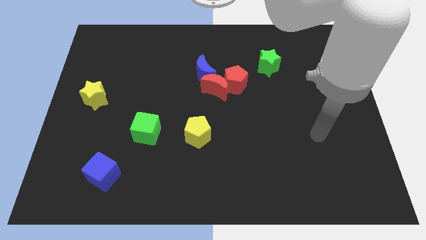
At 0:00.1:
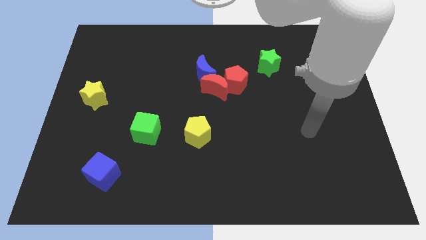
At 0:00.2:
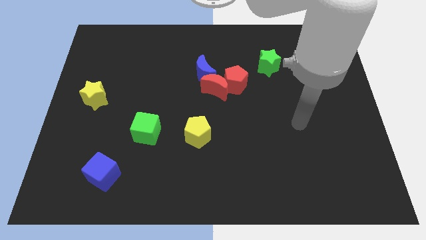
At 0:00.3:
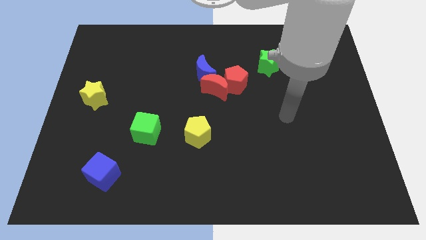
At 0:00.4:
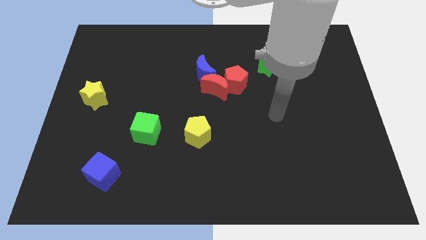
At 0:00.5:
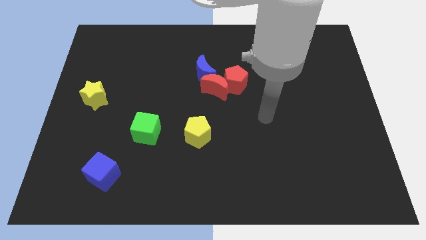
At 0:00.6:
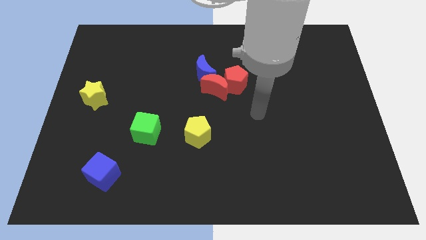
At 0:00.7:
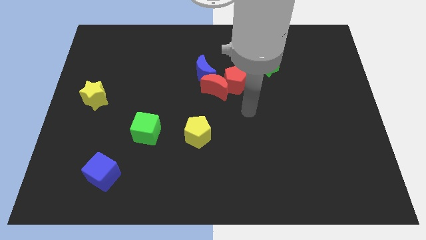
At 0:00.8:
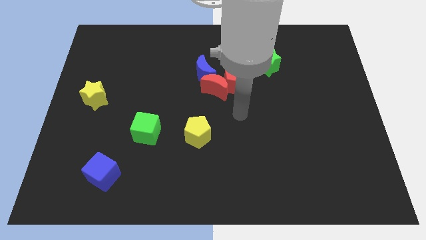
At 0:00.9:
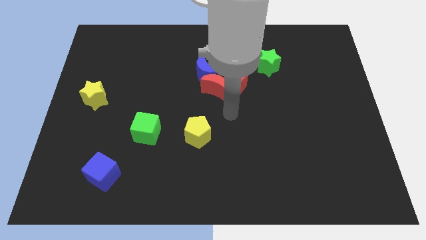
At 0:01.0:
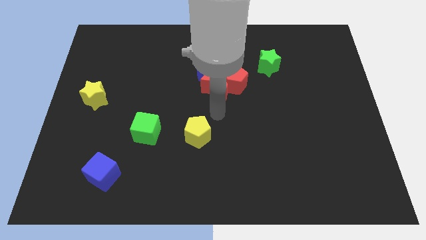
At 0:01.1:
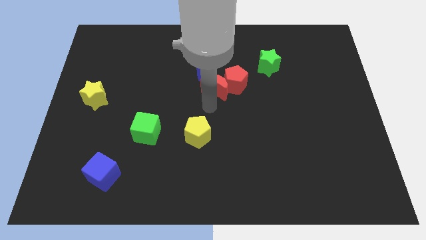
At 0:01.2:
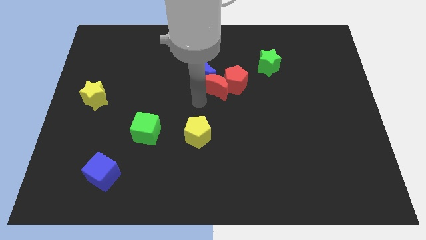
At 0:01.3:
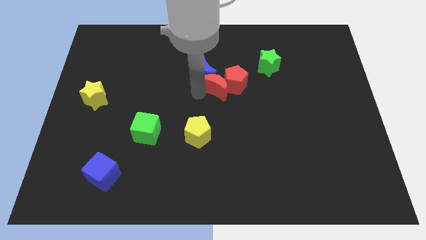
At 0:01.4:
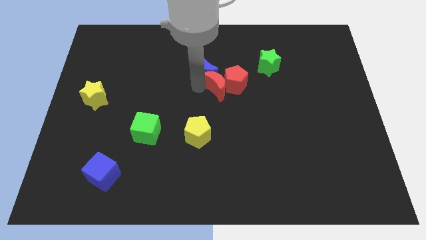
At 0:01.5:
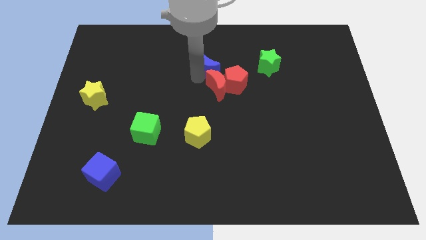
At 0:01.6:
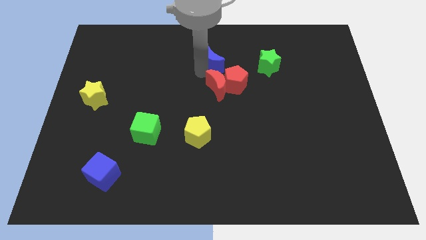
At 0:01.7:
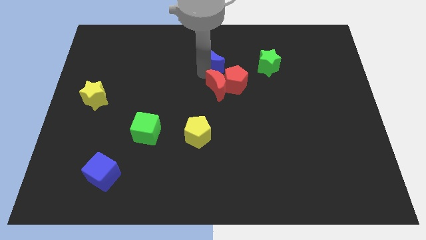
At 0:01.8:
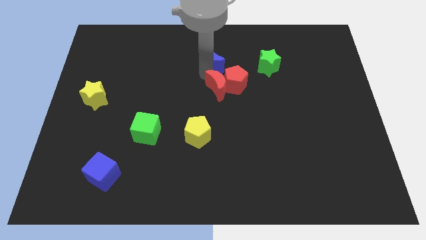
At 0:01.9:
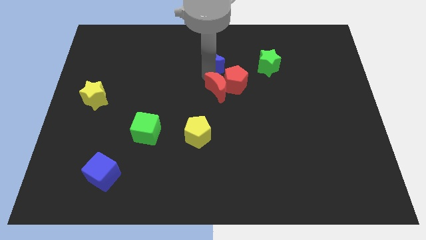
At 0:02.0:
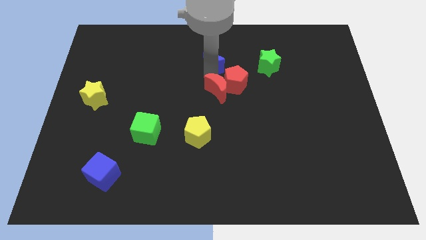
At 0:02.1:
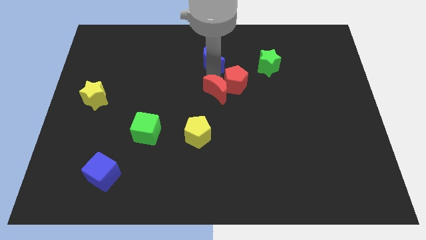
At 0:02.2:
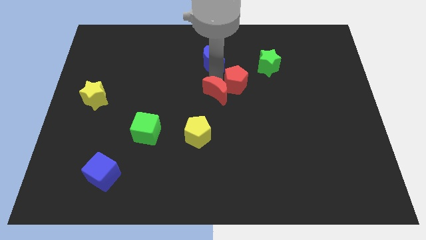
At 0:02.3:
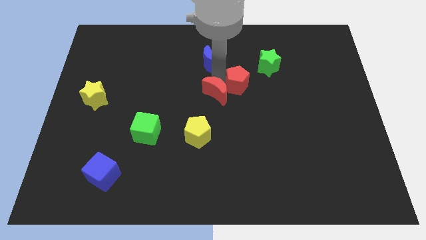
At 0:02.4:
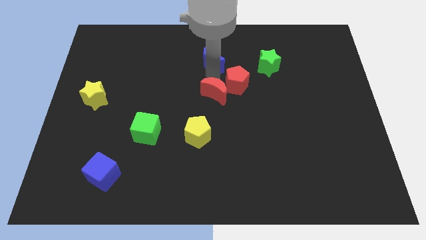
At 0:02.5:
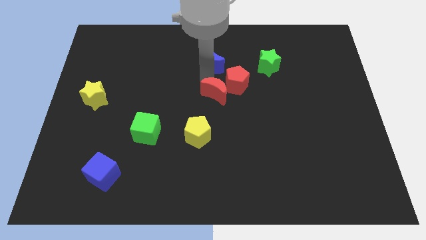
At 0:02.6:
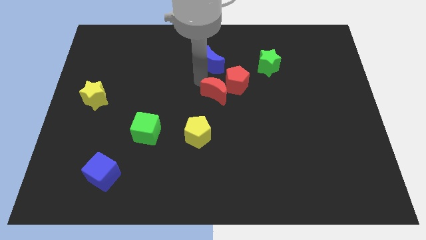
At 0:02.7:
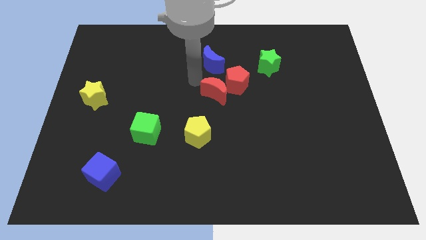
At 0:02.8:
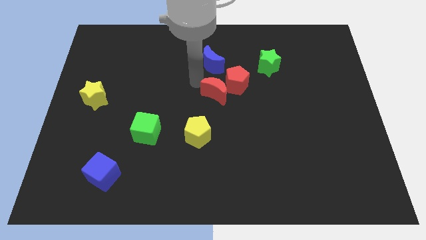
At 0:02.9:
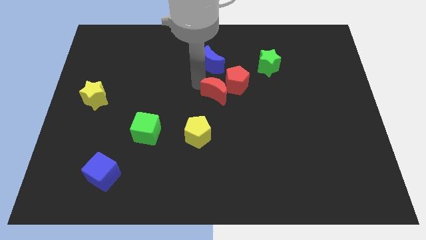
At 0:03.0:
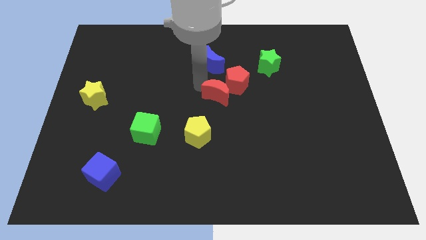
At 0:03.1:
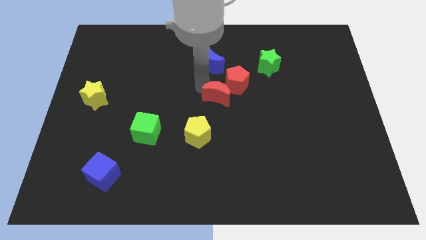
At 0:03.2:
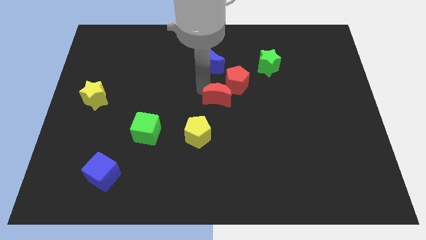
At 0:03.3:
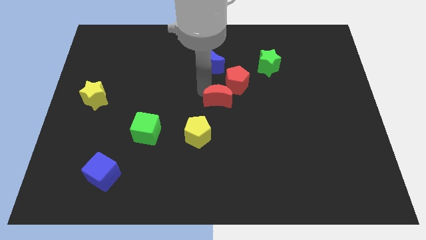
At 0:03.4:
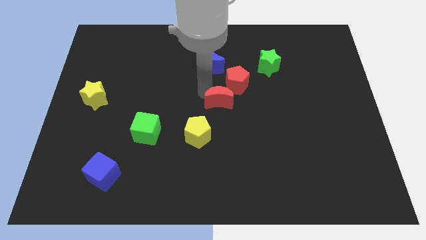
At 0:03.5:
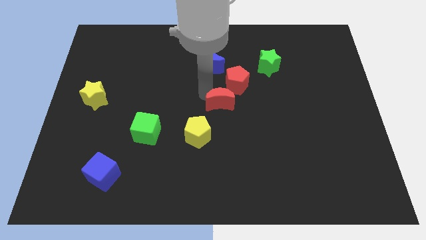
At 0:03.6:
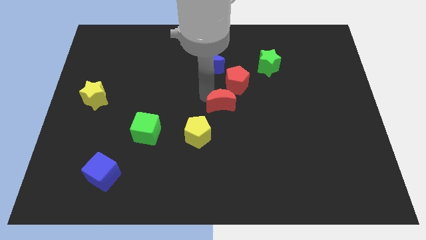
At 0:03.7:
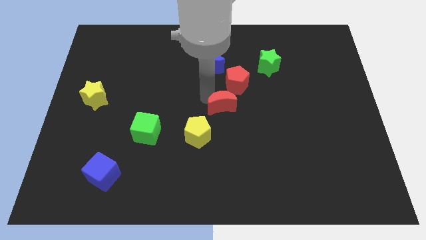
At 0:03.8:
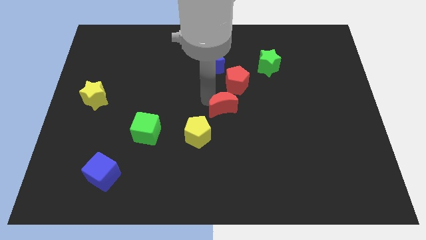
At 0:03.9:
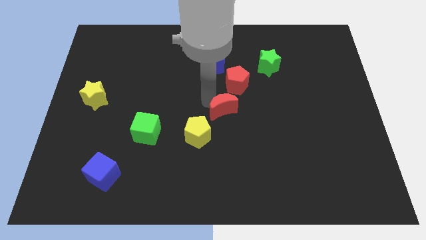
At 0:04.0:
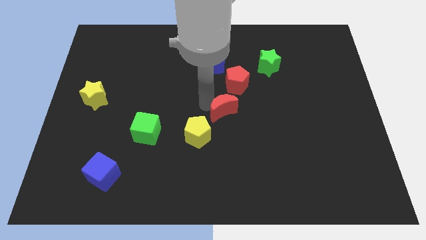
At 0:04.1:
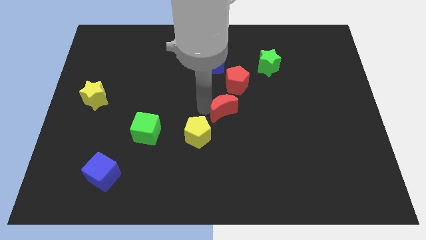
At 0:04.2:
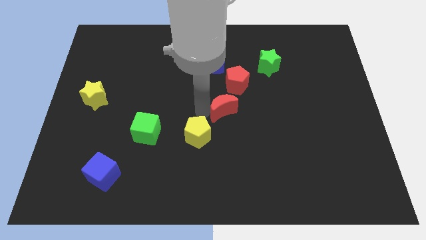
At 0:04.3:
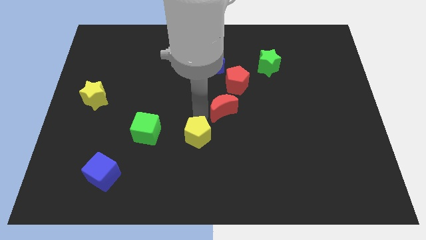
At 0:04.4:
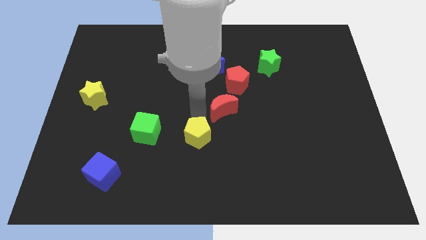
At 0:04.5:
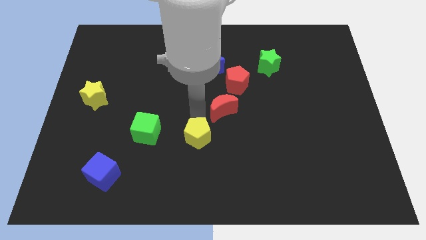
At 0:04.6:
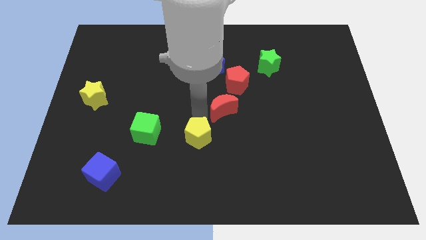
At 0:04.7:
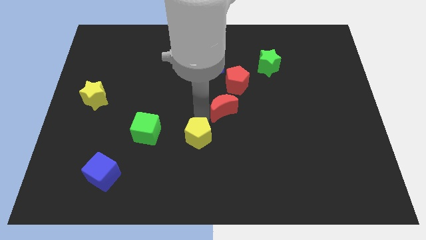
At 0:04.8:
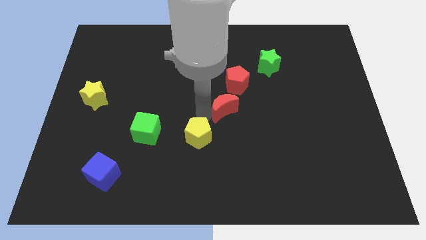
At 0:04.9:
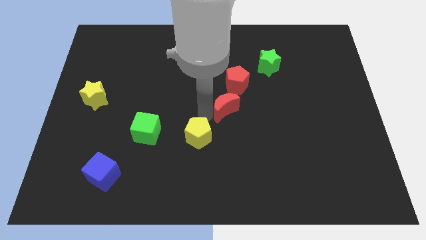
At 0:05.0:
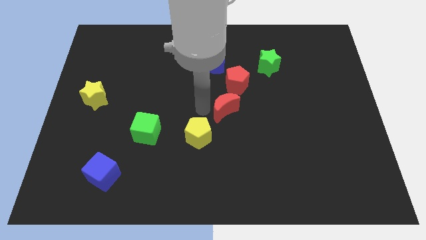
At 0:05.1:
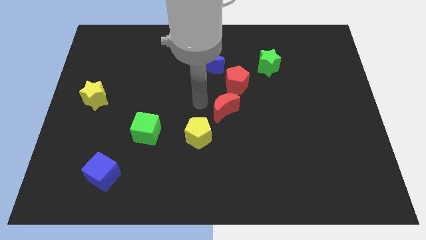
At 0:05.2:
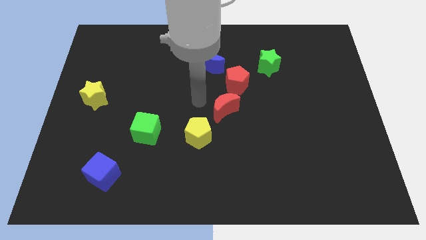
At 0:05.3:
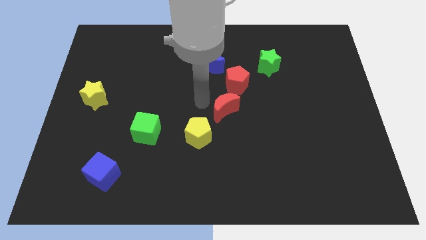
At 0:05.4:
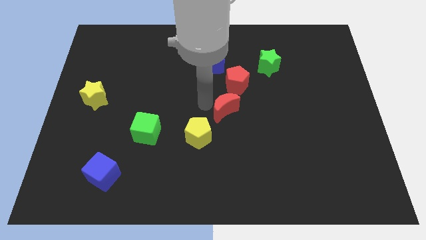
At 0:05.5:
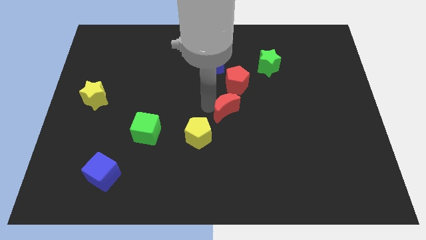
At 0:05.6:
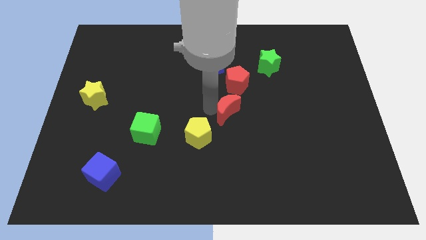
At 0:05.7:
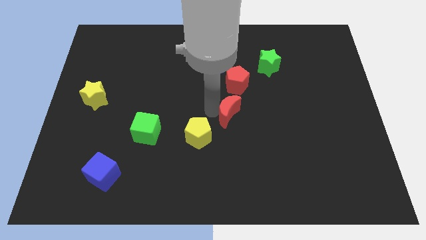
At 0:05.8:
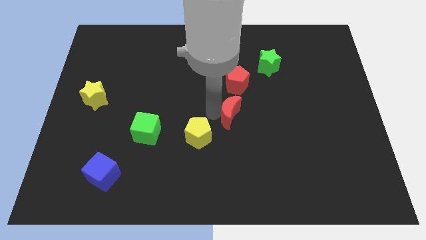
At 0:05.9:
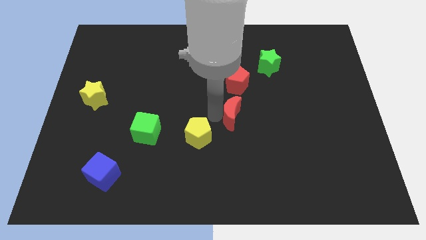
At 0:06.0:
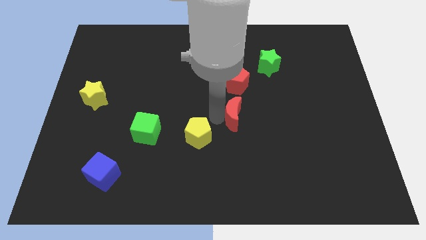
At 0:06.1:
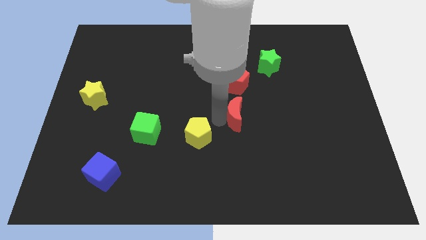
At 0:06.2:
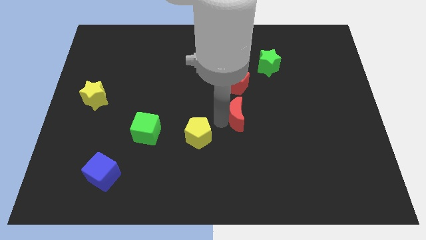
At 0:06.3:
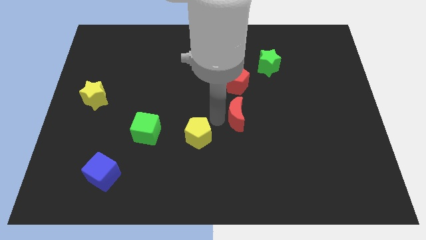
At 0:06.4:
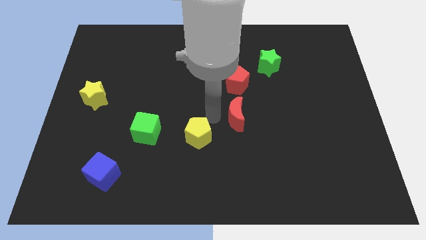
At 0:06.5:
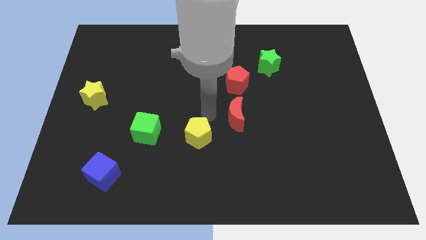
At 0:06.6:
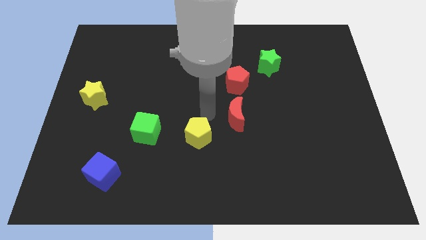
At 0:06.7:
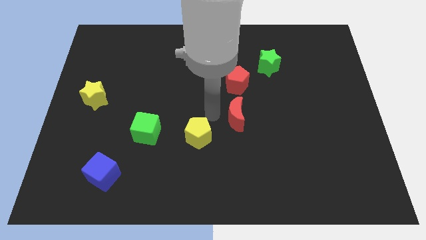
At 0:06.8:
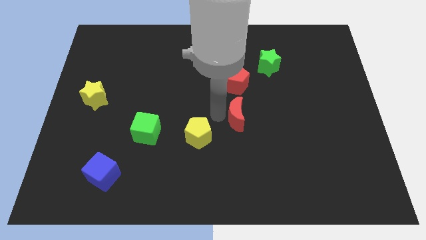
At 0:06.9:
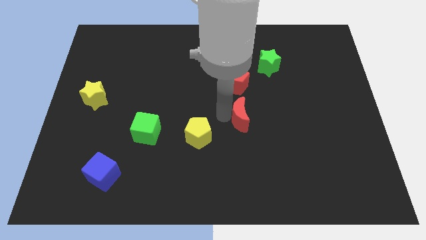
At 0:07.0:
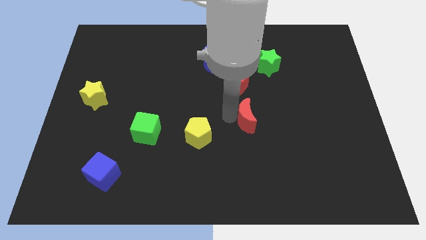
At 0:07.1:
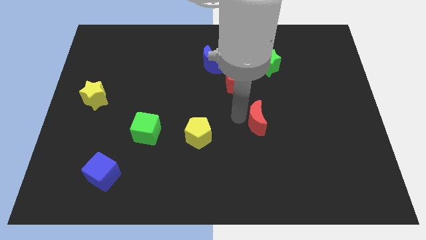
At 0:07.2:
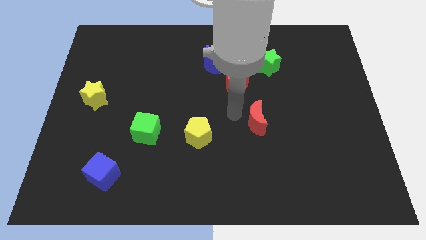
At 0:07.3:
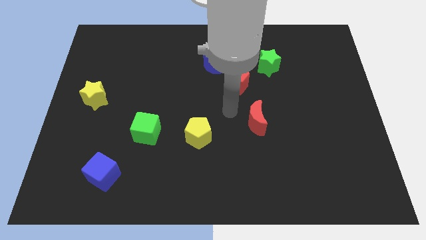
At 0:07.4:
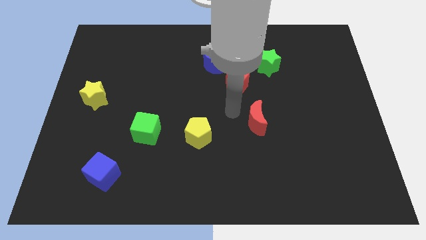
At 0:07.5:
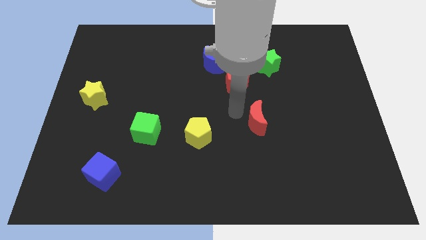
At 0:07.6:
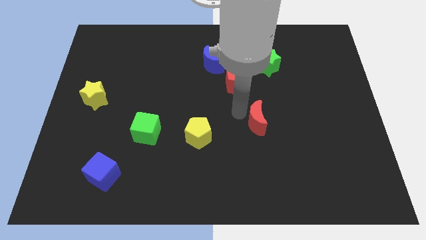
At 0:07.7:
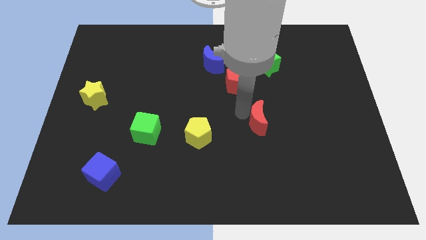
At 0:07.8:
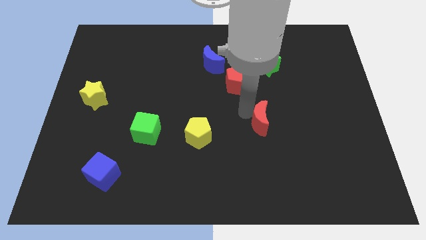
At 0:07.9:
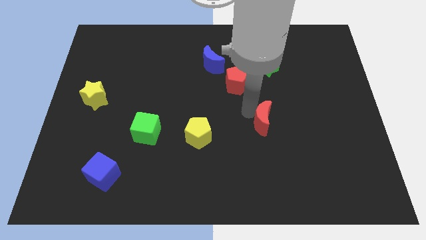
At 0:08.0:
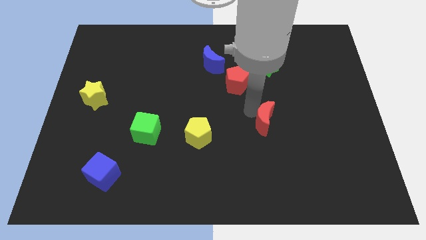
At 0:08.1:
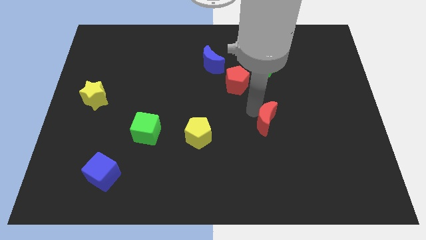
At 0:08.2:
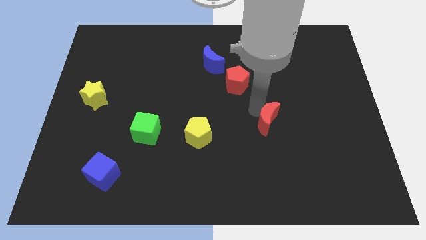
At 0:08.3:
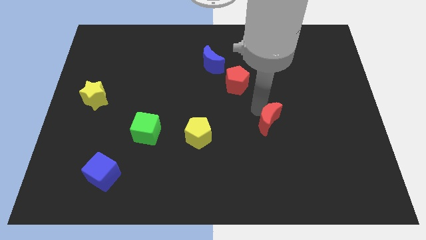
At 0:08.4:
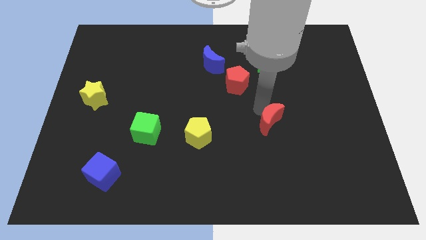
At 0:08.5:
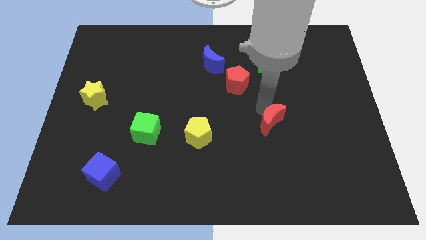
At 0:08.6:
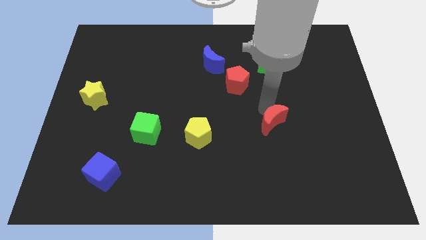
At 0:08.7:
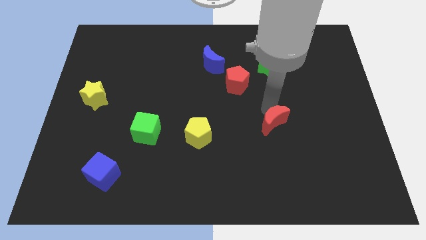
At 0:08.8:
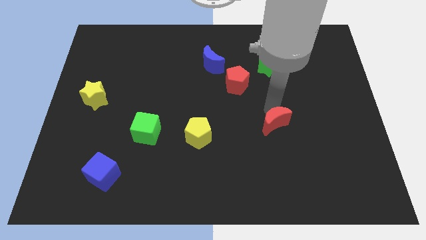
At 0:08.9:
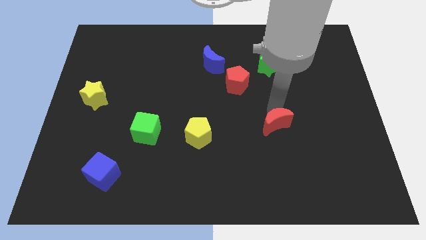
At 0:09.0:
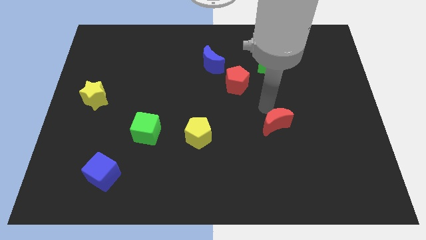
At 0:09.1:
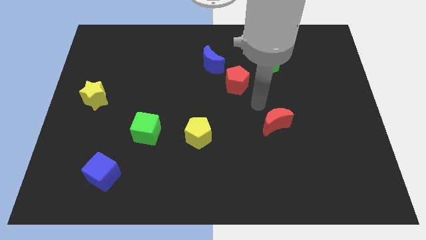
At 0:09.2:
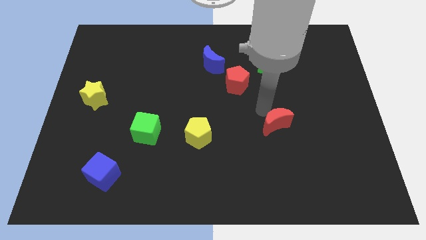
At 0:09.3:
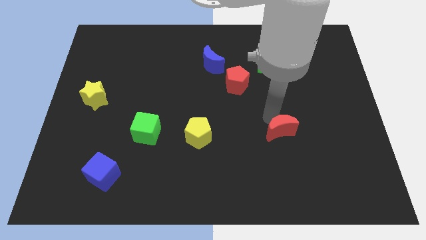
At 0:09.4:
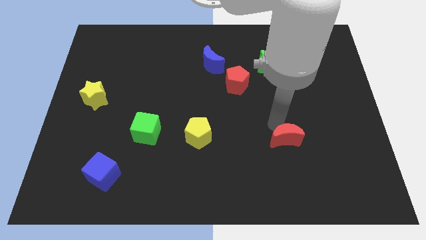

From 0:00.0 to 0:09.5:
slide the red moon down and right diagonally
